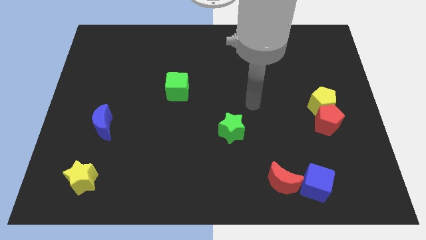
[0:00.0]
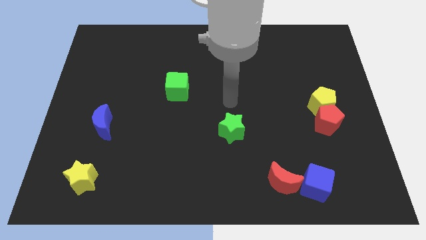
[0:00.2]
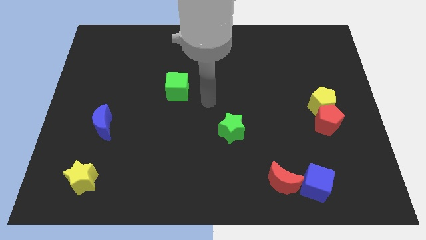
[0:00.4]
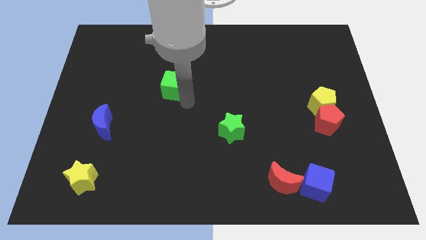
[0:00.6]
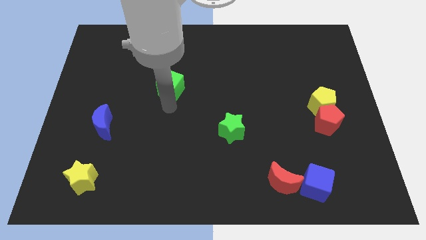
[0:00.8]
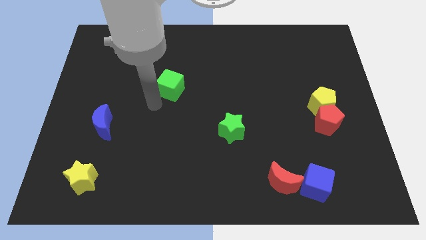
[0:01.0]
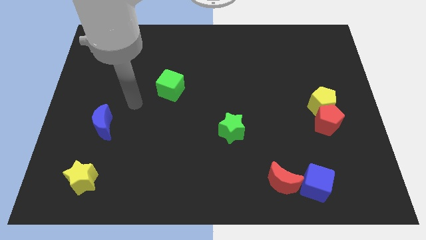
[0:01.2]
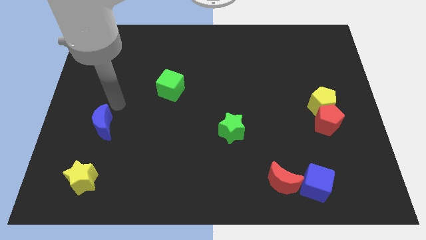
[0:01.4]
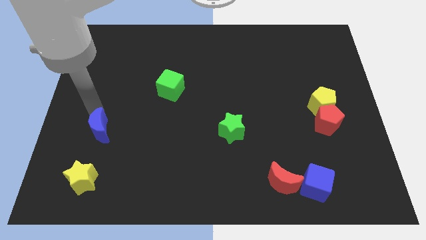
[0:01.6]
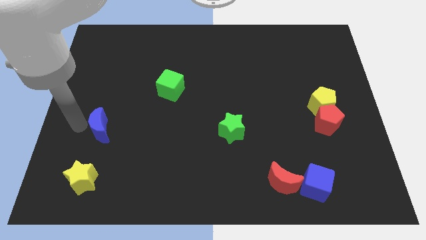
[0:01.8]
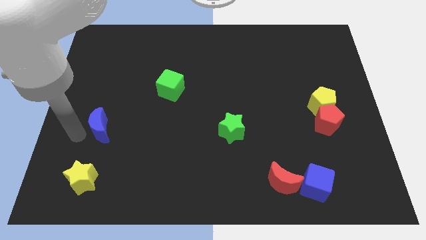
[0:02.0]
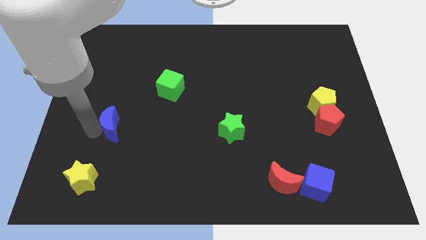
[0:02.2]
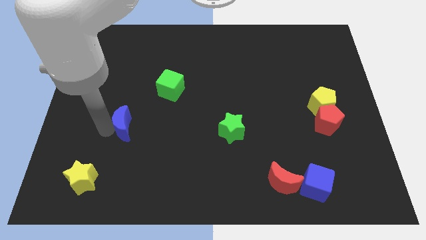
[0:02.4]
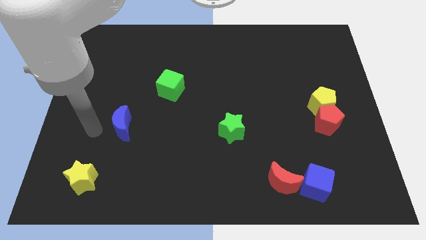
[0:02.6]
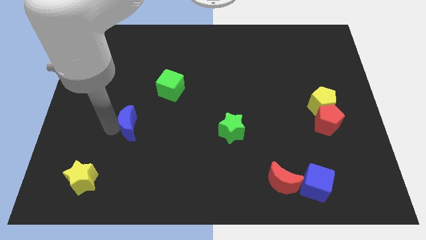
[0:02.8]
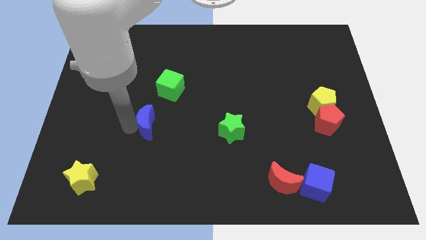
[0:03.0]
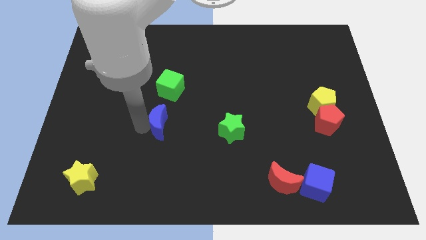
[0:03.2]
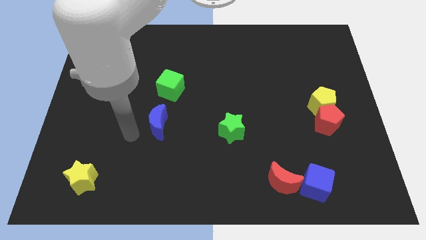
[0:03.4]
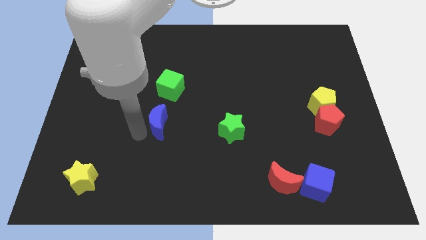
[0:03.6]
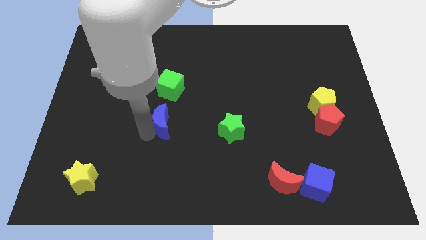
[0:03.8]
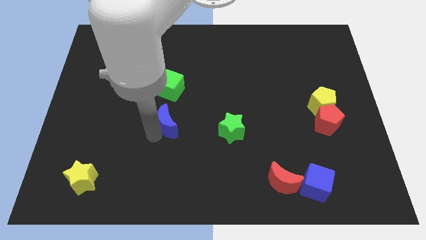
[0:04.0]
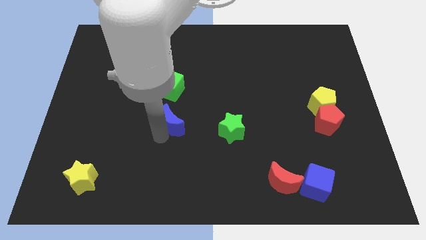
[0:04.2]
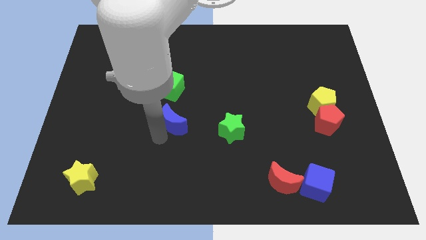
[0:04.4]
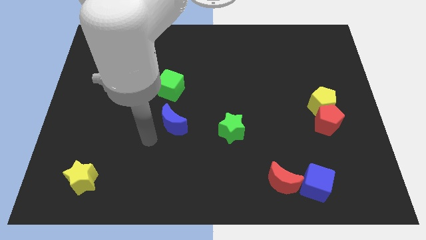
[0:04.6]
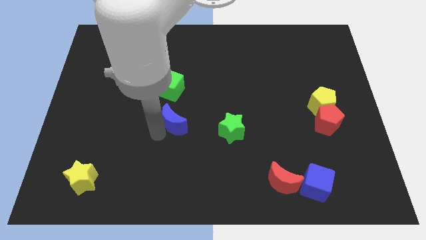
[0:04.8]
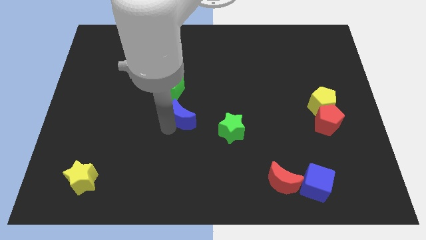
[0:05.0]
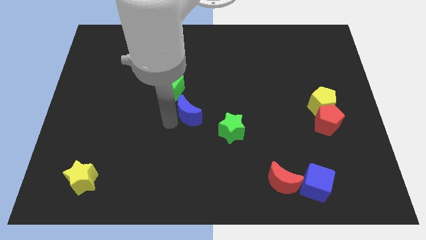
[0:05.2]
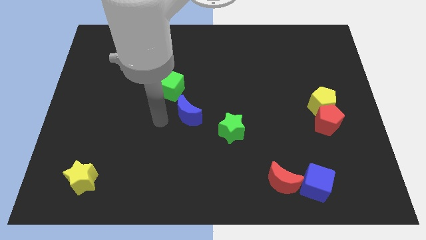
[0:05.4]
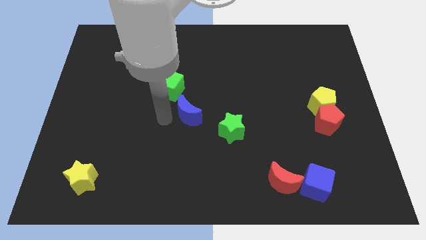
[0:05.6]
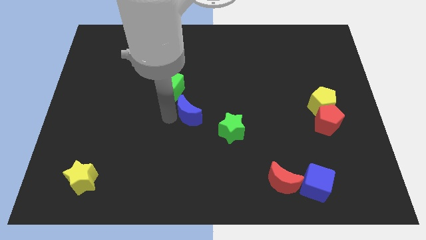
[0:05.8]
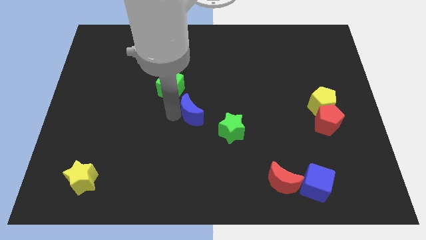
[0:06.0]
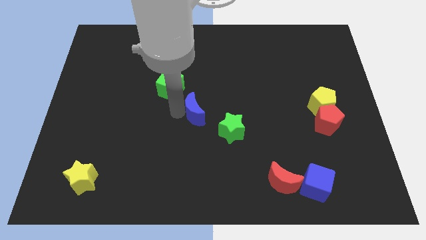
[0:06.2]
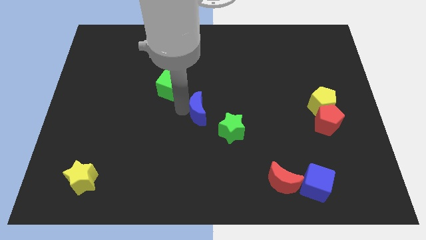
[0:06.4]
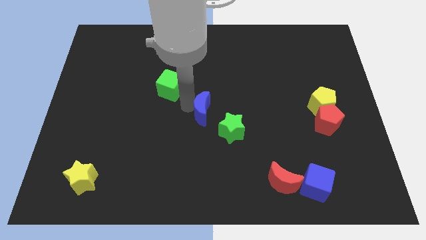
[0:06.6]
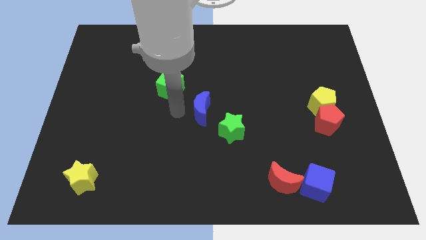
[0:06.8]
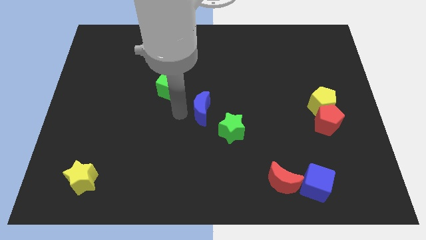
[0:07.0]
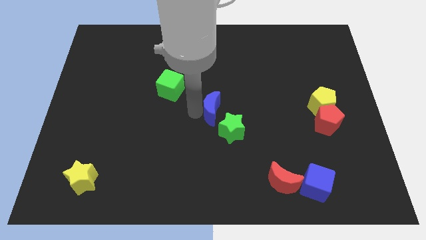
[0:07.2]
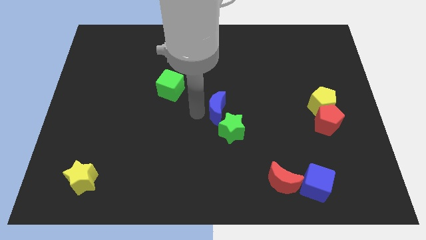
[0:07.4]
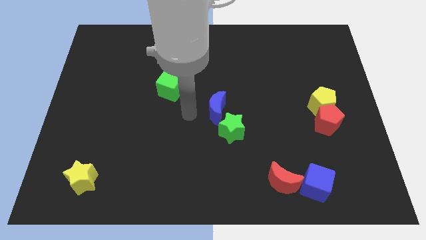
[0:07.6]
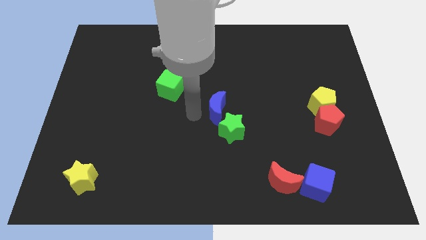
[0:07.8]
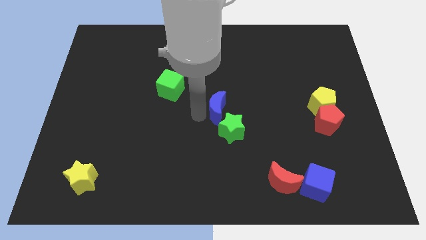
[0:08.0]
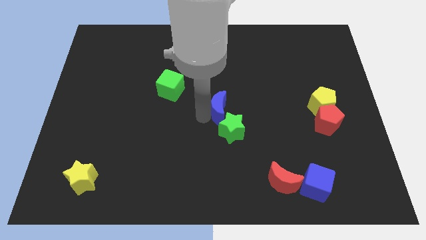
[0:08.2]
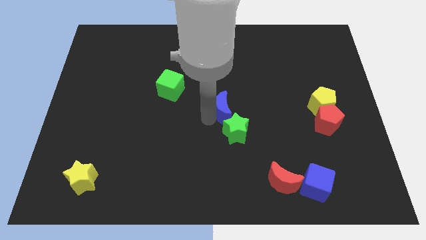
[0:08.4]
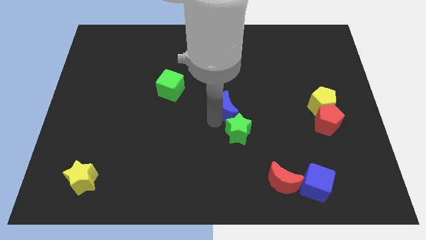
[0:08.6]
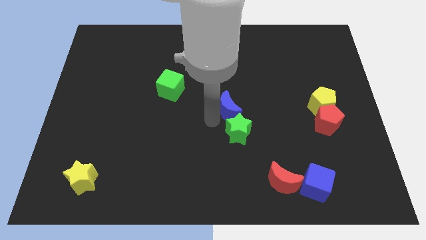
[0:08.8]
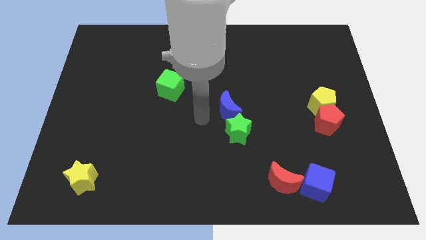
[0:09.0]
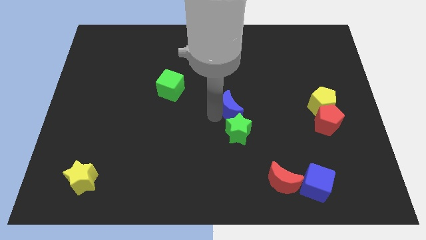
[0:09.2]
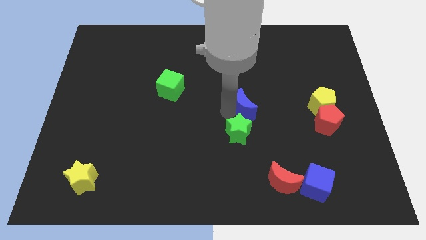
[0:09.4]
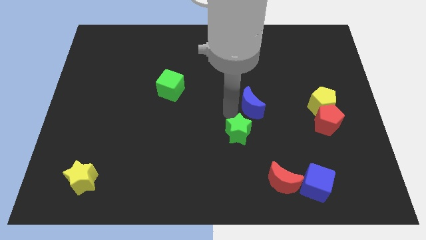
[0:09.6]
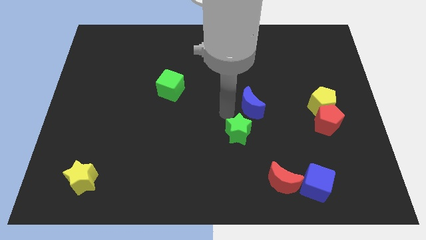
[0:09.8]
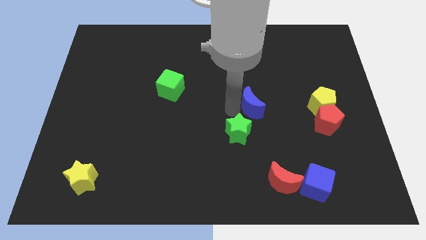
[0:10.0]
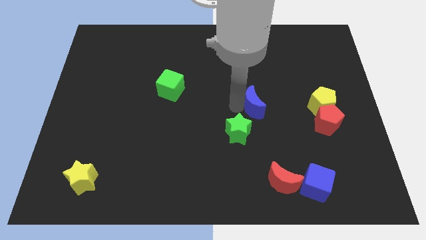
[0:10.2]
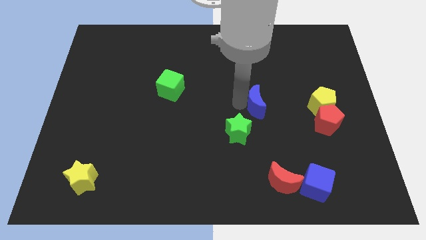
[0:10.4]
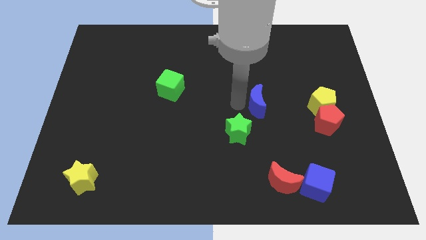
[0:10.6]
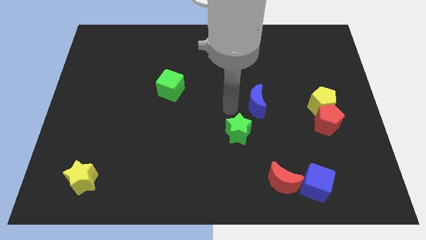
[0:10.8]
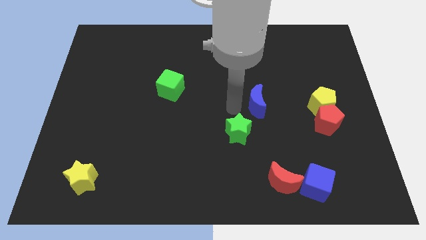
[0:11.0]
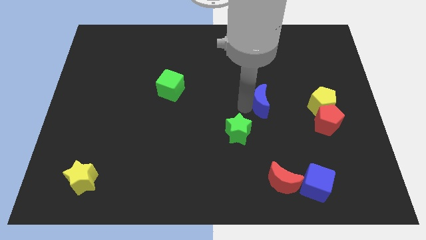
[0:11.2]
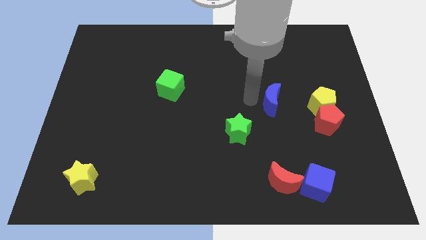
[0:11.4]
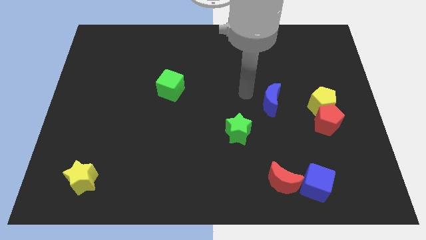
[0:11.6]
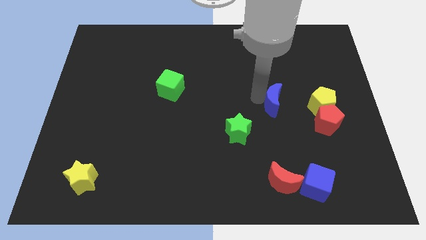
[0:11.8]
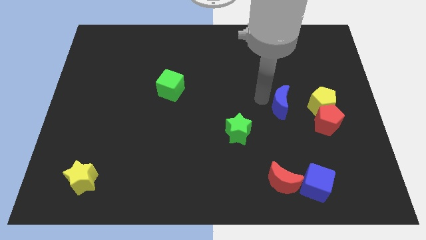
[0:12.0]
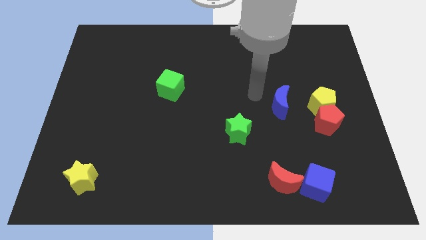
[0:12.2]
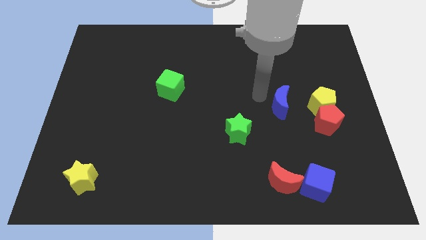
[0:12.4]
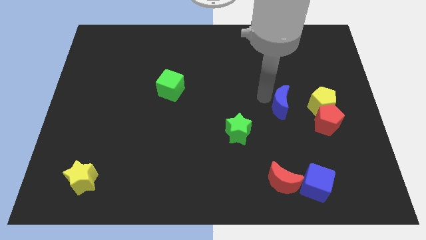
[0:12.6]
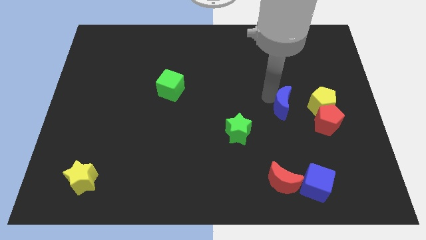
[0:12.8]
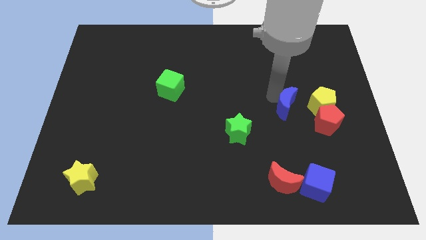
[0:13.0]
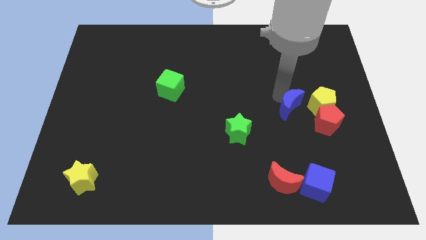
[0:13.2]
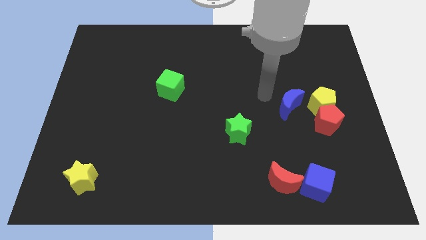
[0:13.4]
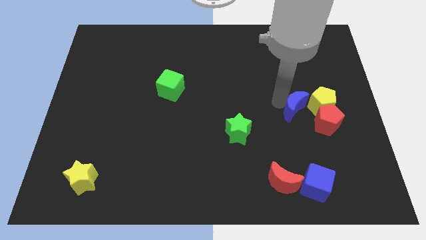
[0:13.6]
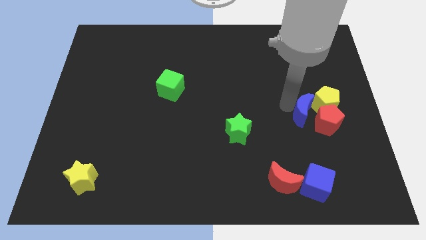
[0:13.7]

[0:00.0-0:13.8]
move the blue moon close to the red pentagon
